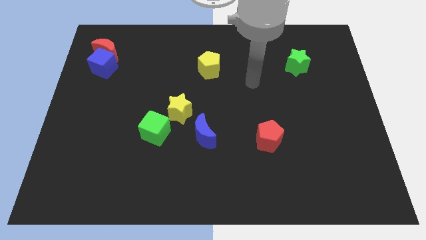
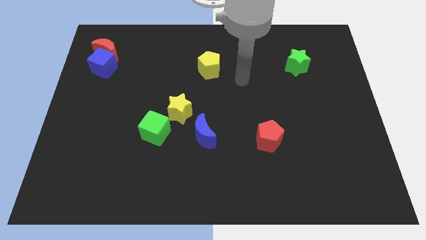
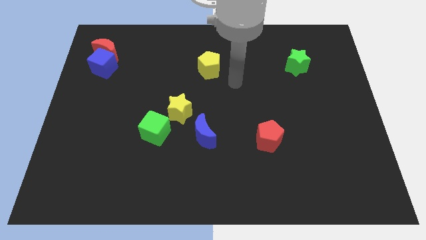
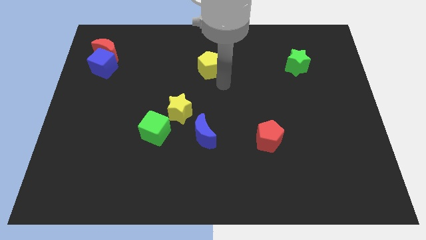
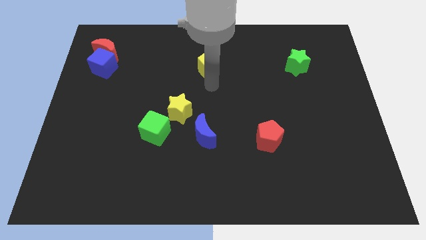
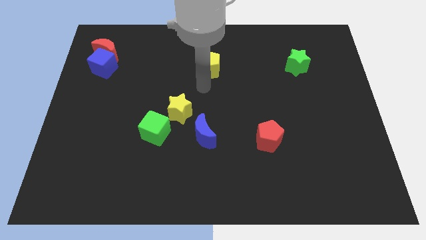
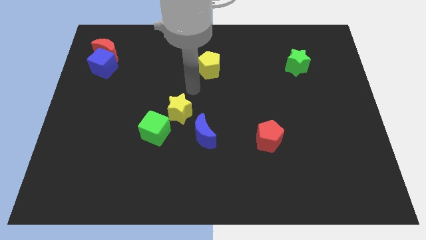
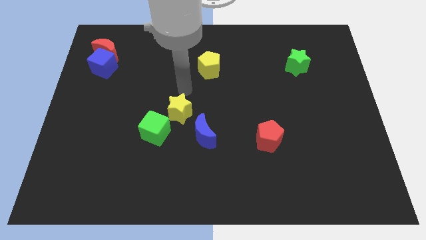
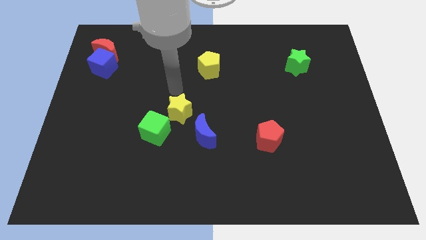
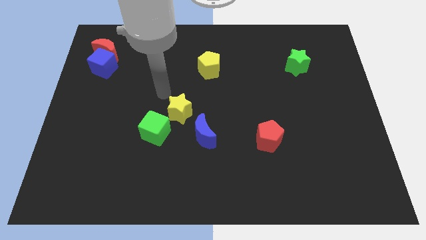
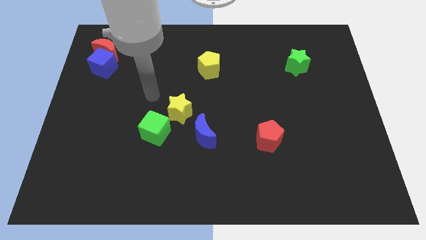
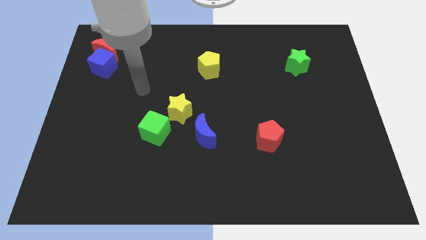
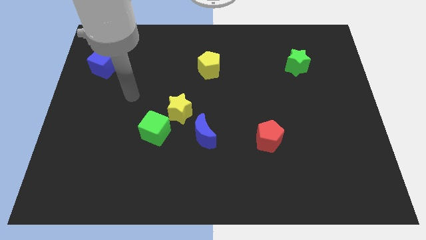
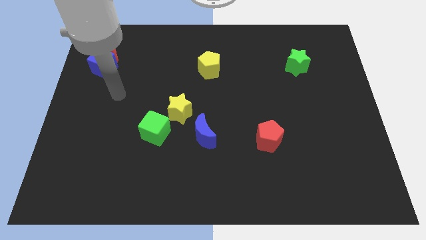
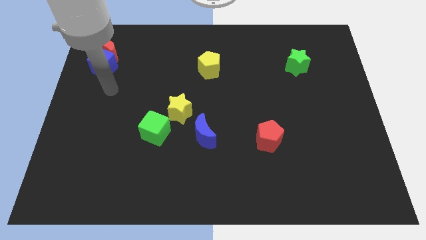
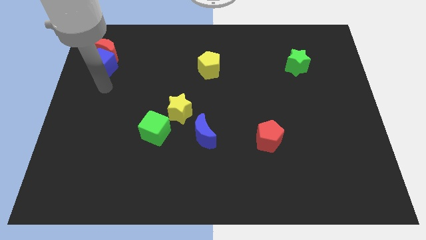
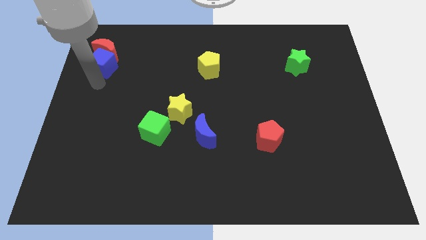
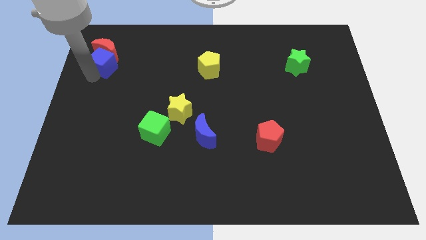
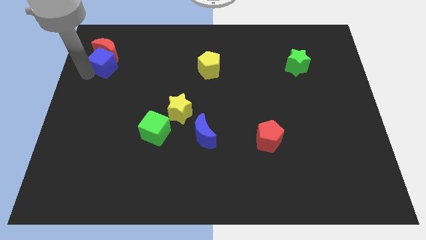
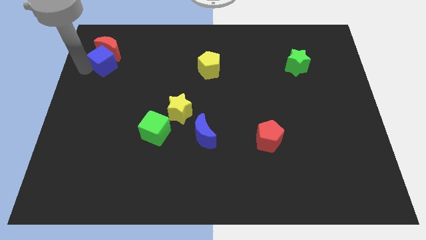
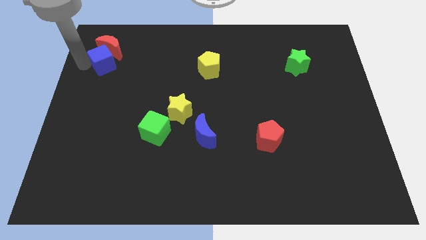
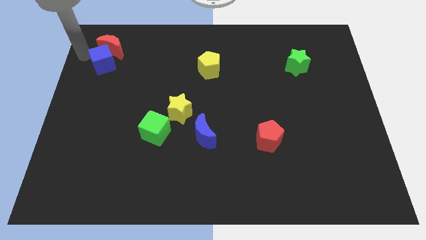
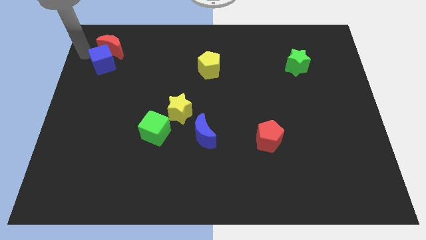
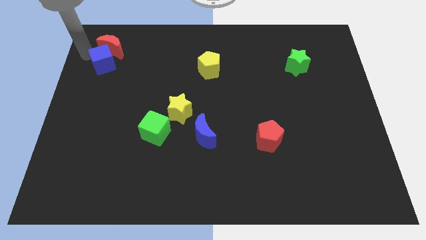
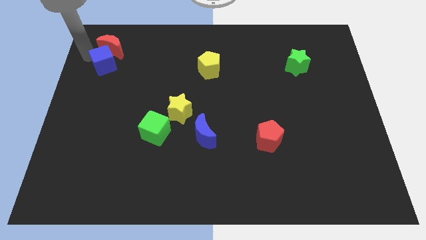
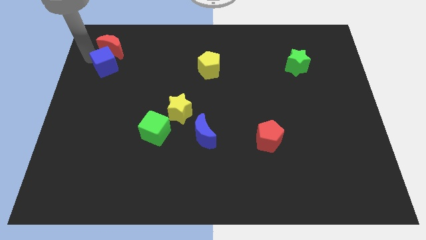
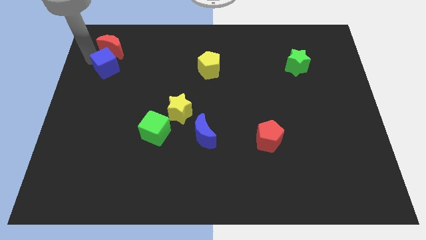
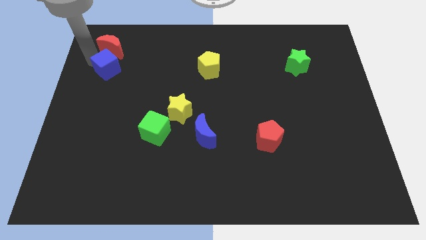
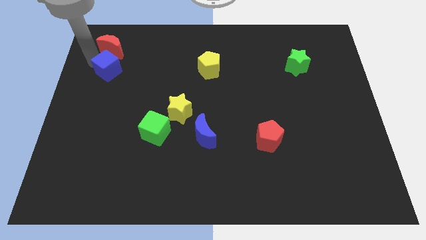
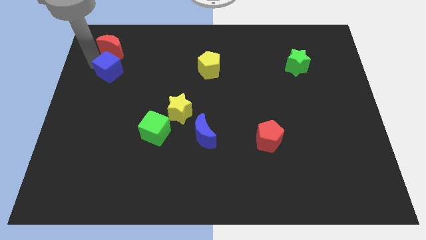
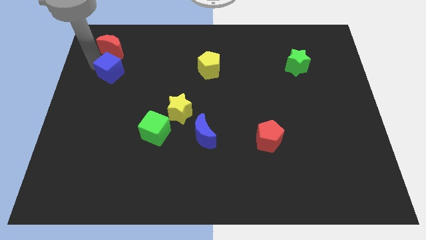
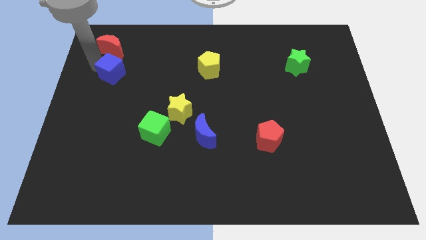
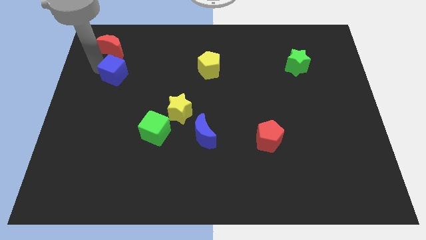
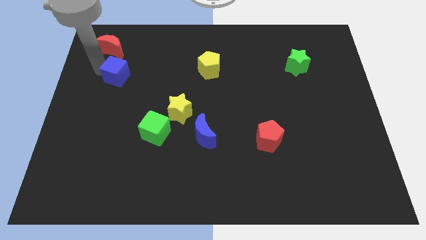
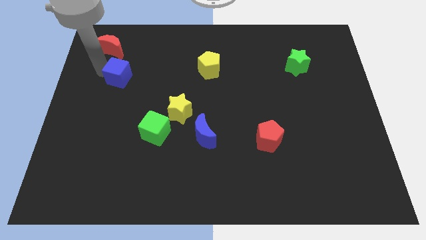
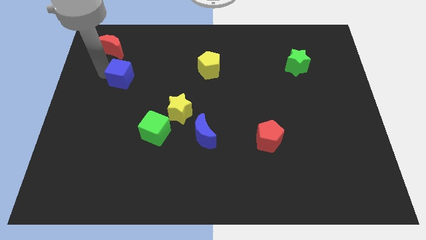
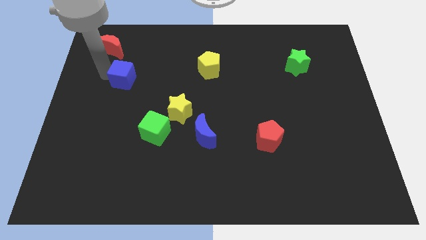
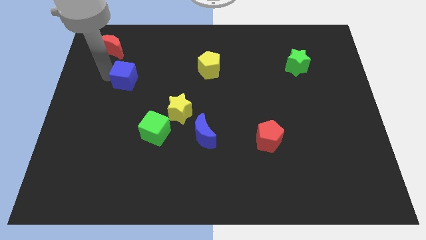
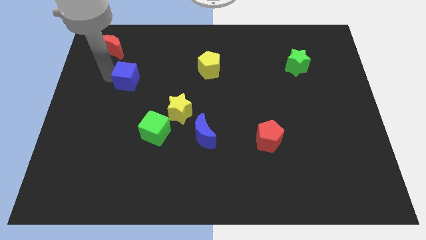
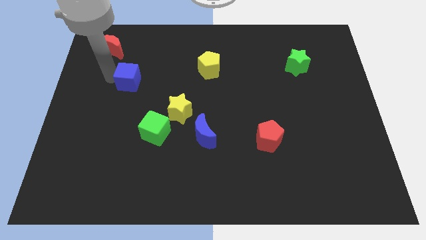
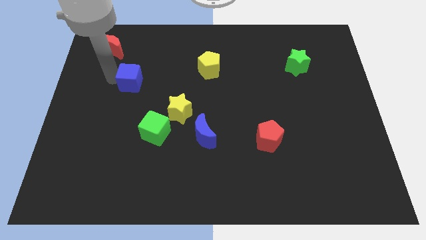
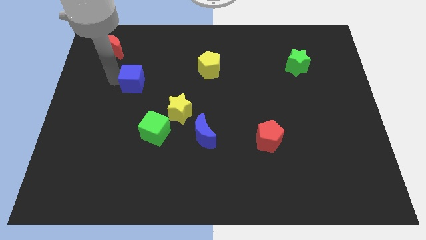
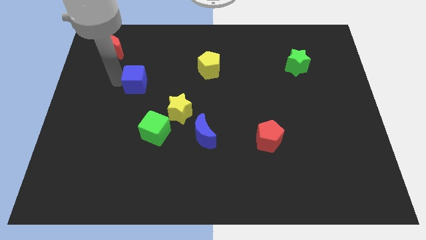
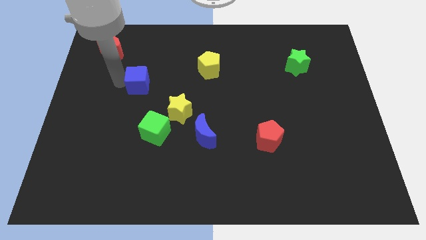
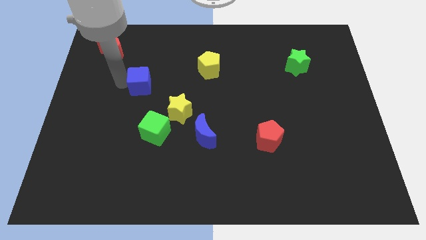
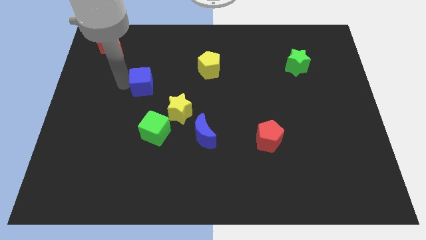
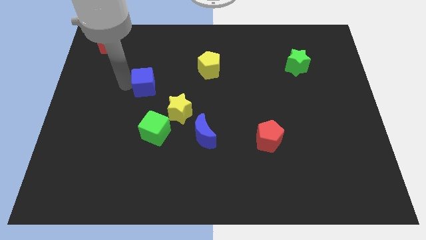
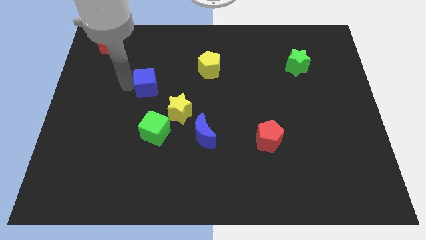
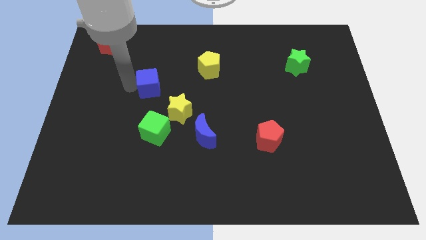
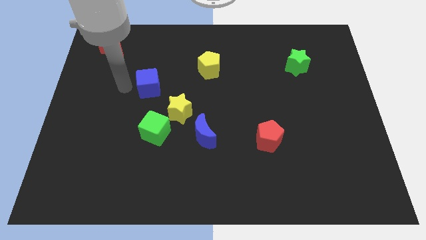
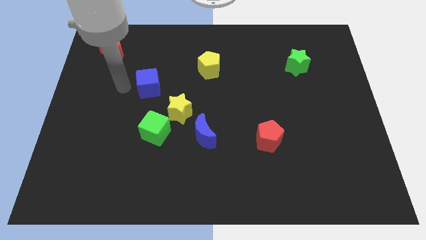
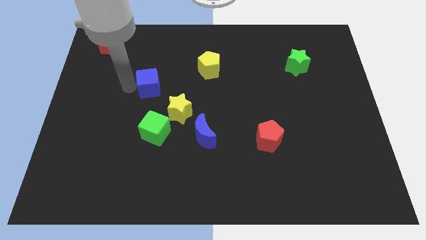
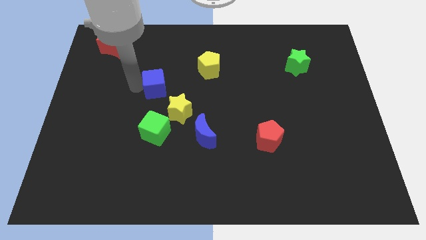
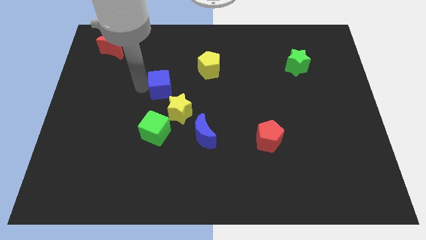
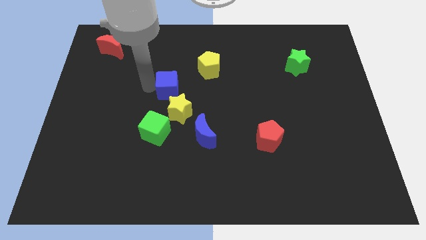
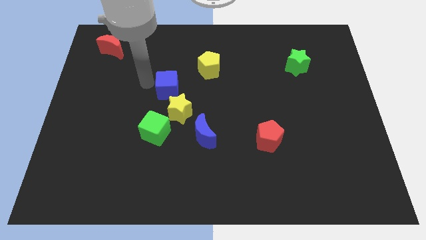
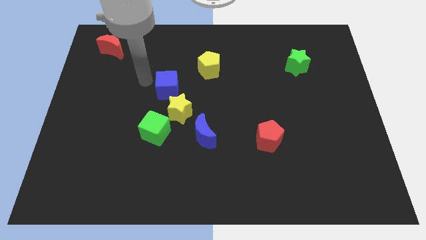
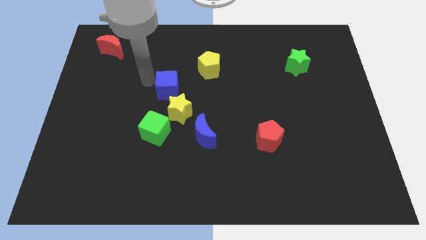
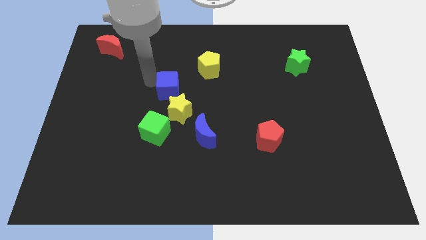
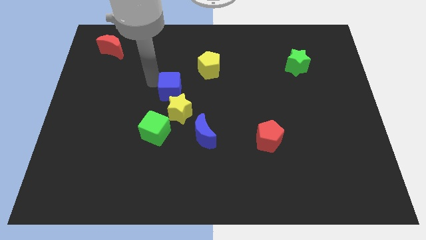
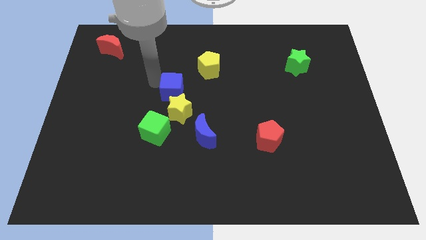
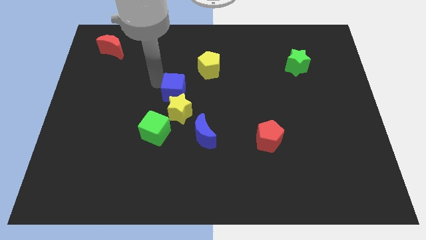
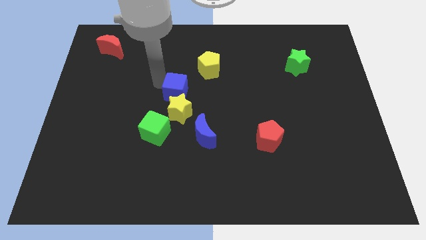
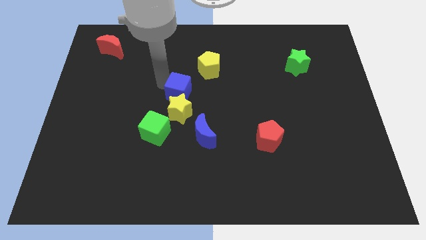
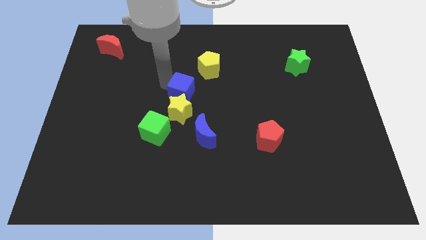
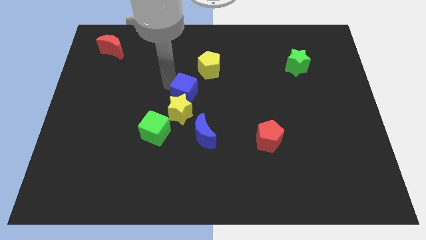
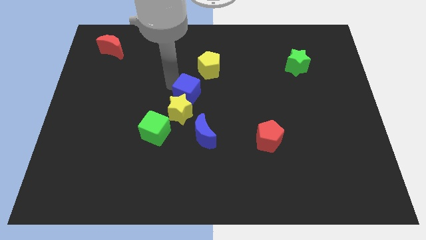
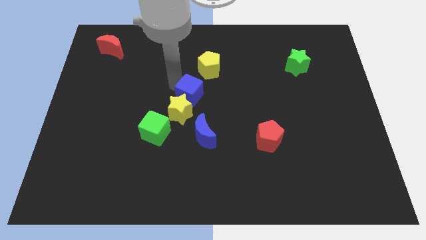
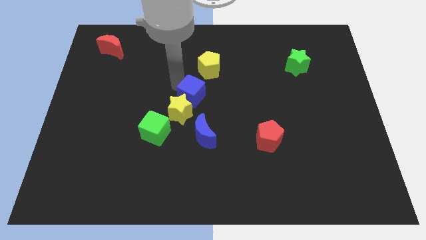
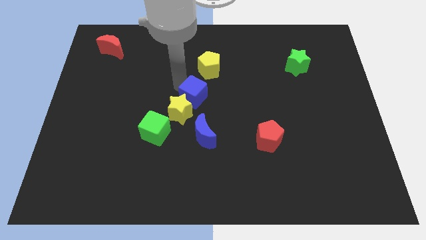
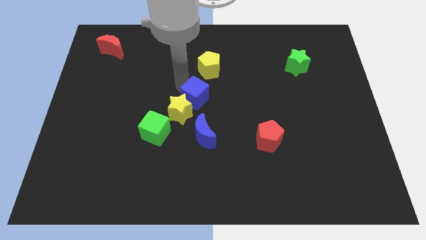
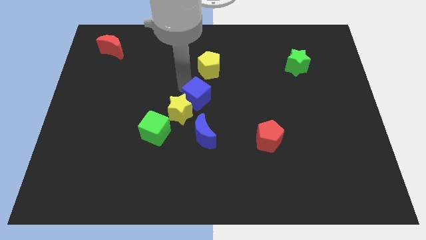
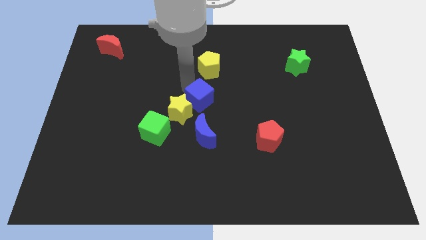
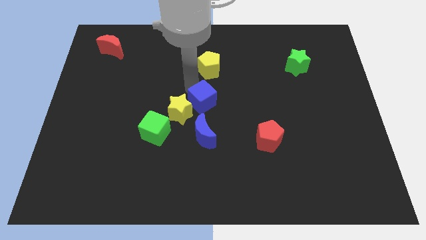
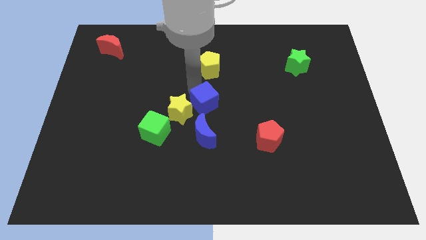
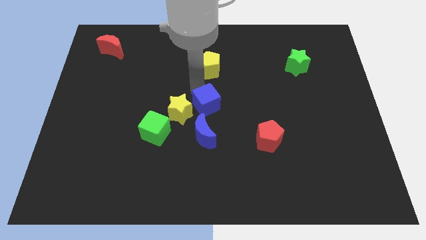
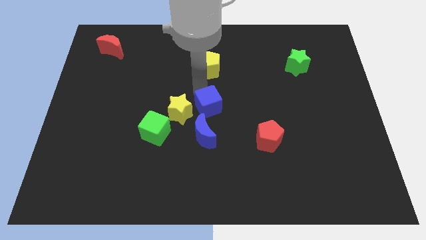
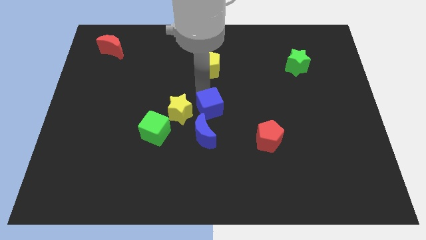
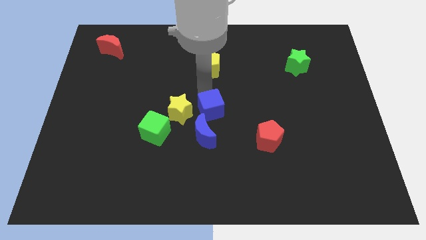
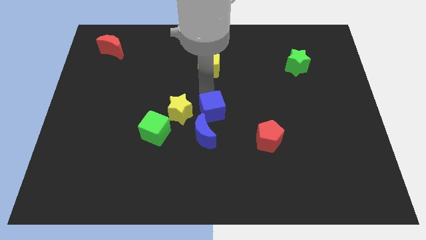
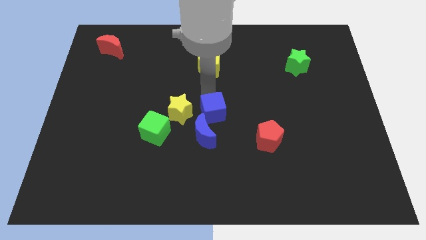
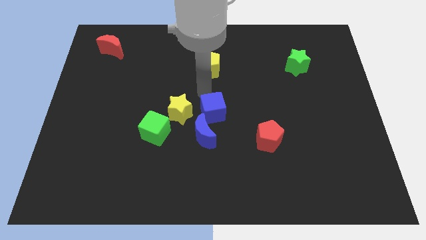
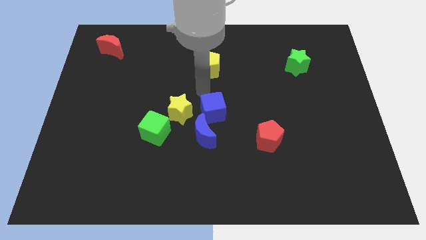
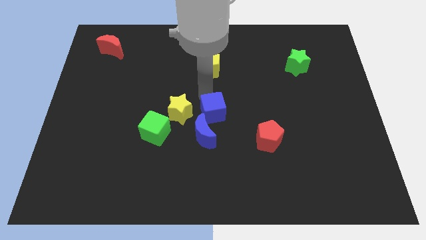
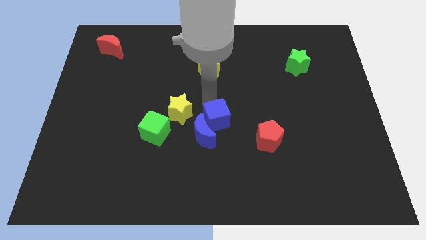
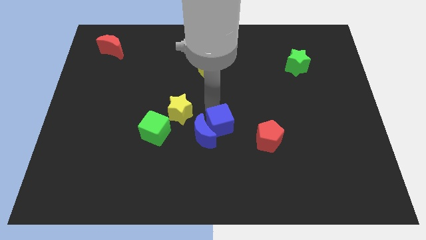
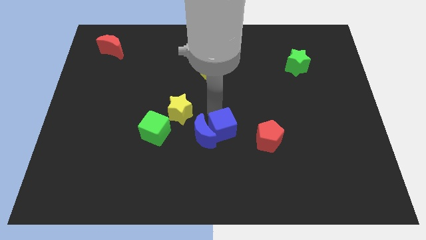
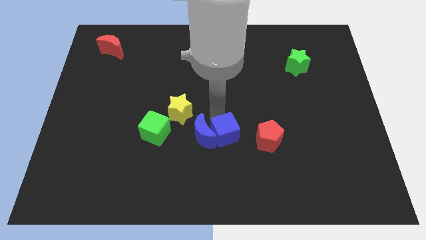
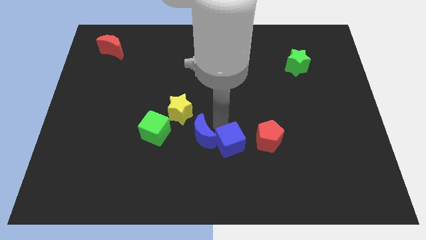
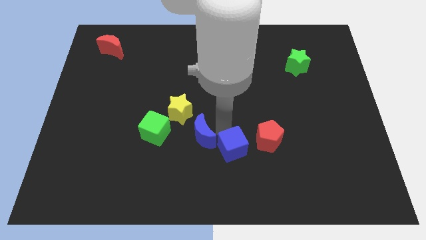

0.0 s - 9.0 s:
slide the blue cube to the bottom left side of the red pentagon
